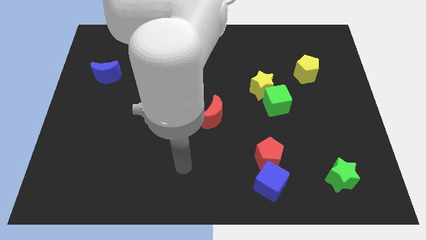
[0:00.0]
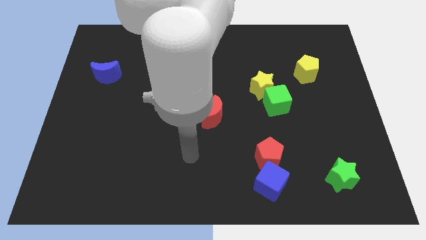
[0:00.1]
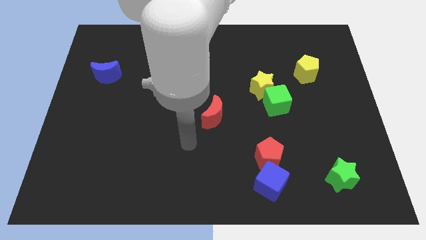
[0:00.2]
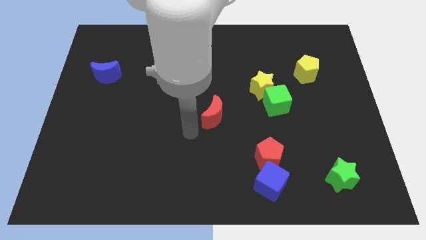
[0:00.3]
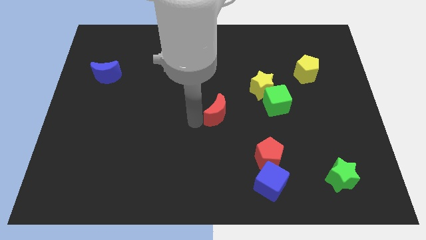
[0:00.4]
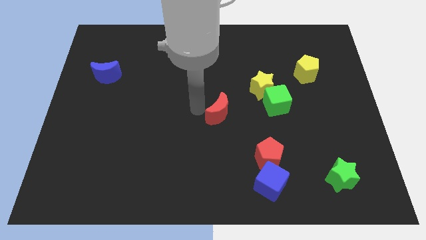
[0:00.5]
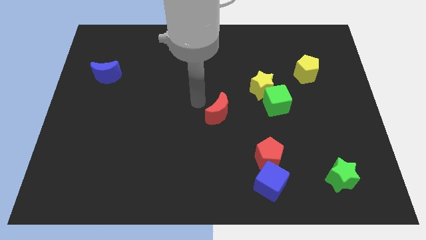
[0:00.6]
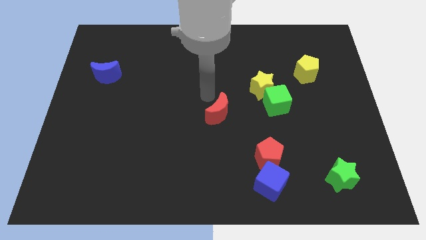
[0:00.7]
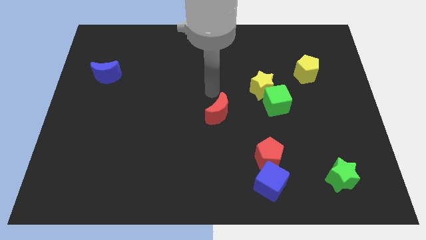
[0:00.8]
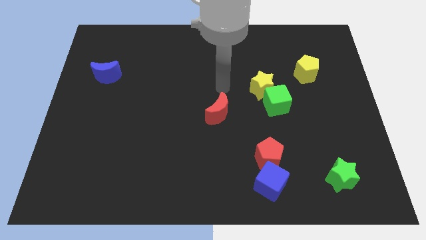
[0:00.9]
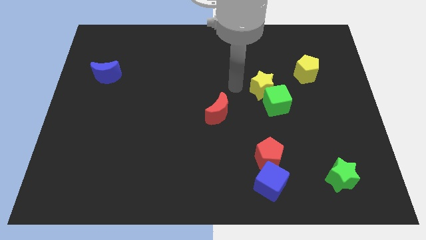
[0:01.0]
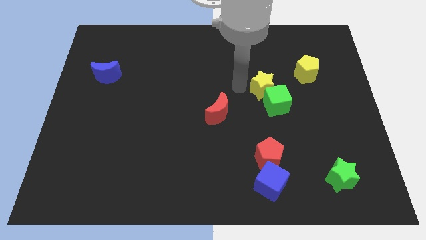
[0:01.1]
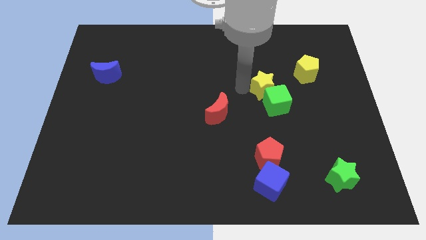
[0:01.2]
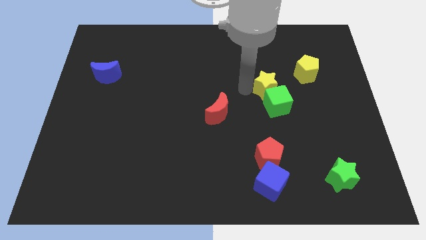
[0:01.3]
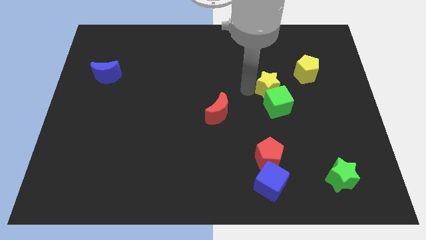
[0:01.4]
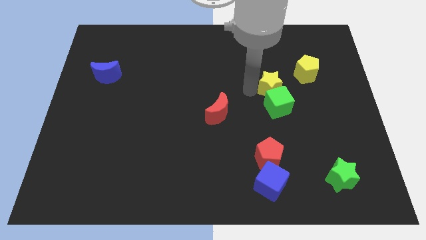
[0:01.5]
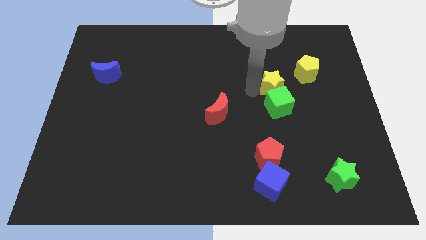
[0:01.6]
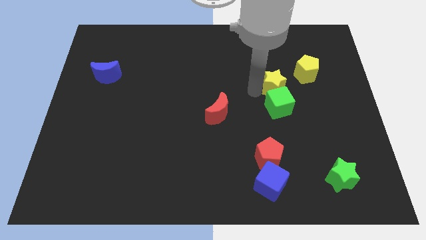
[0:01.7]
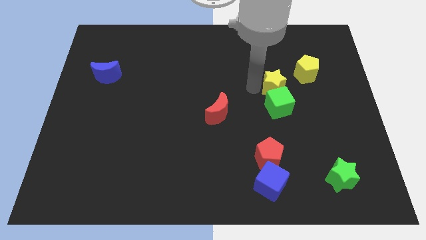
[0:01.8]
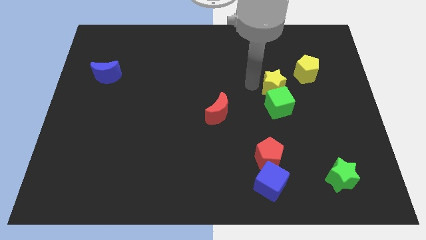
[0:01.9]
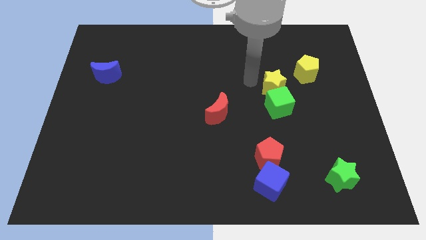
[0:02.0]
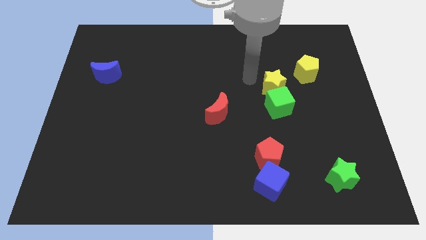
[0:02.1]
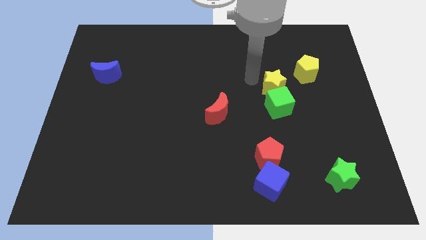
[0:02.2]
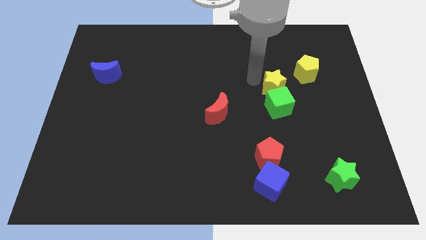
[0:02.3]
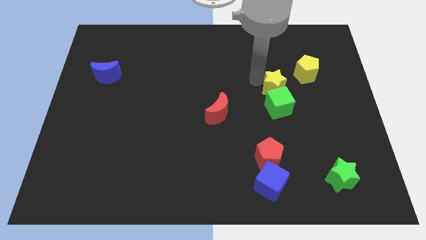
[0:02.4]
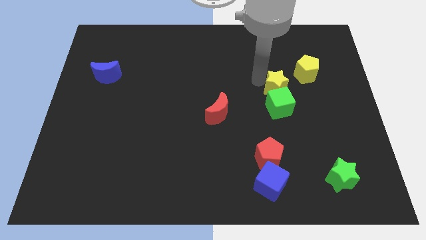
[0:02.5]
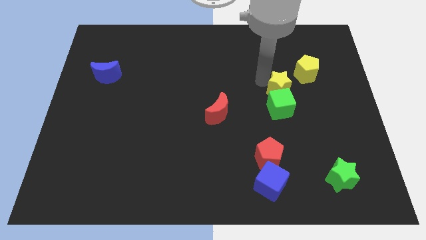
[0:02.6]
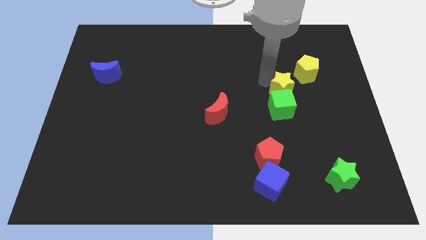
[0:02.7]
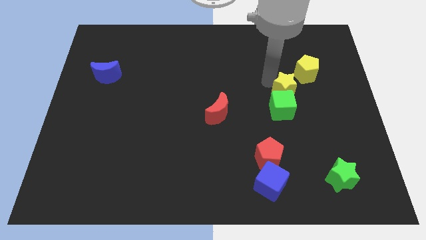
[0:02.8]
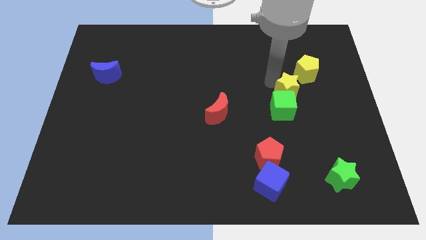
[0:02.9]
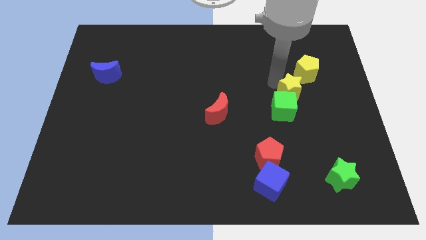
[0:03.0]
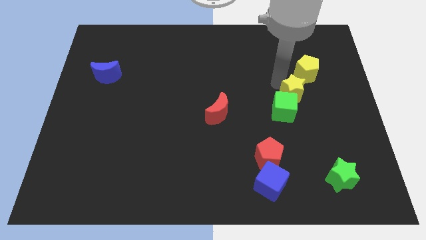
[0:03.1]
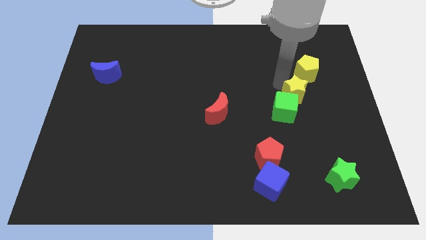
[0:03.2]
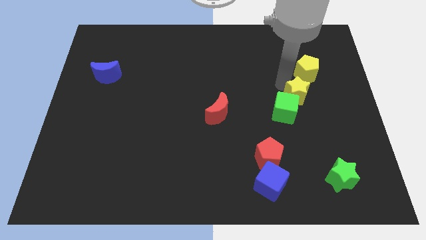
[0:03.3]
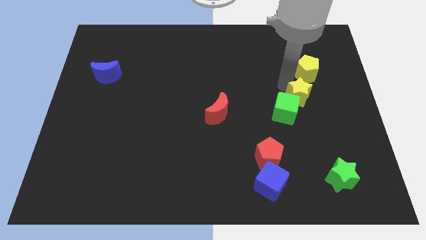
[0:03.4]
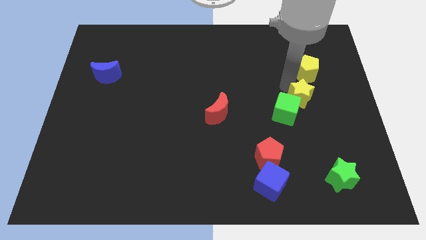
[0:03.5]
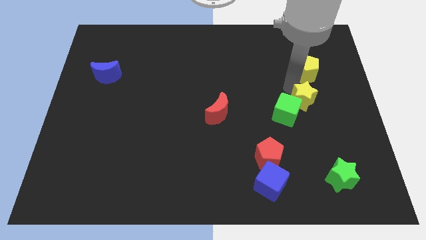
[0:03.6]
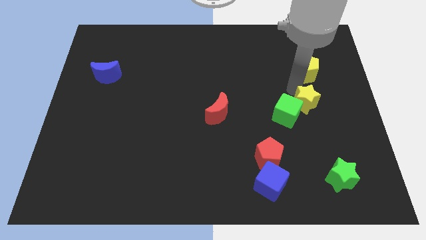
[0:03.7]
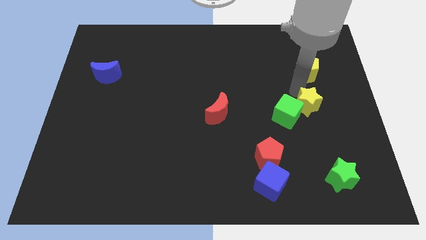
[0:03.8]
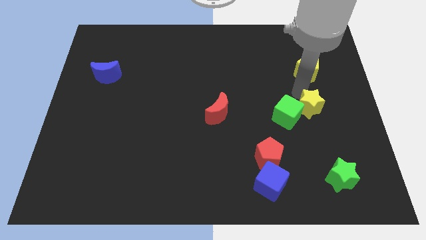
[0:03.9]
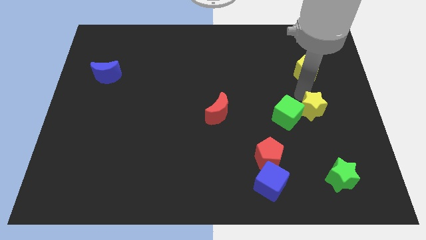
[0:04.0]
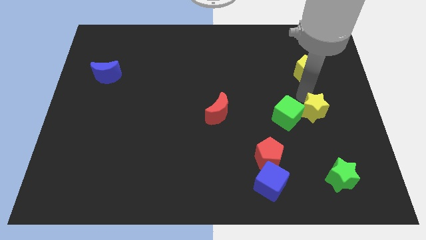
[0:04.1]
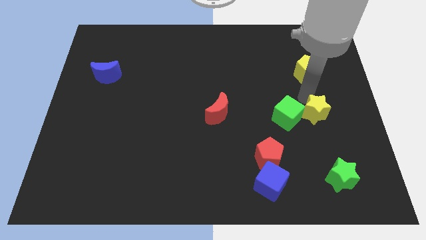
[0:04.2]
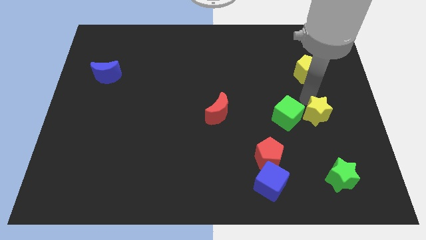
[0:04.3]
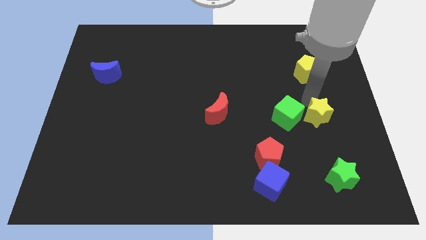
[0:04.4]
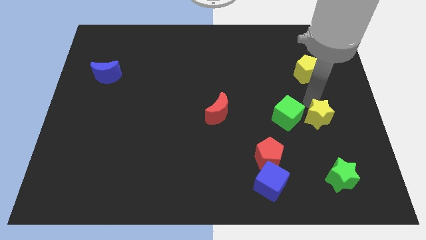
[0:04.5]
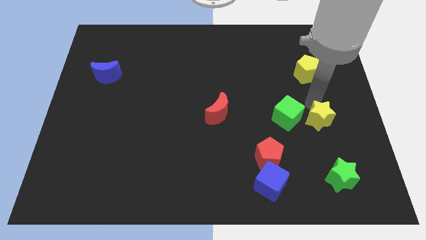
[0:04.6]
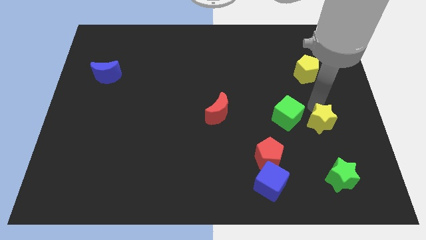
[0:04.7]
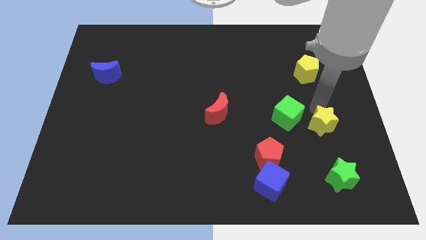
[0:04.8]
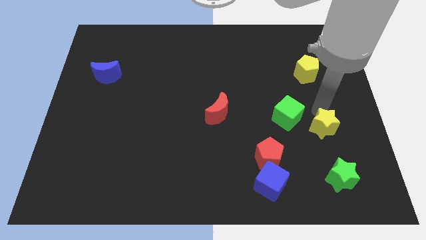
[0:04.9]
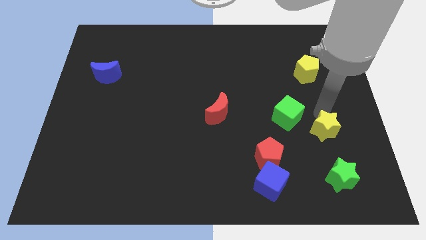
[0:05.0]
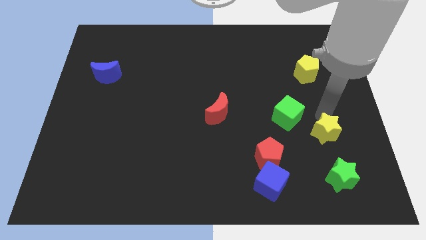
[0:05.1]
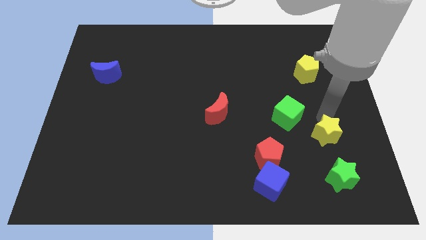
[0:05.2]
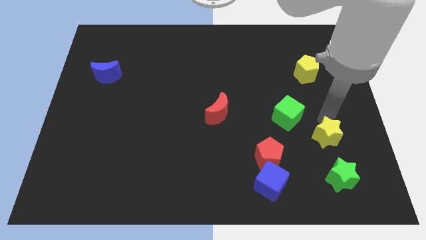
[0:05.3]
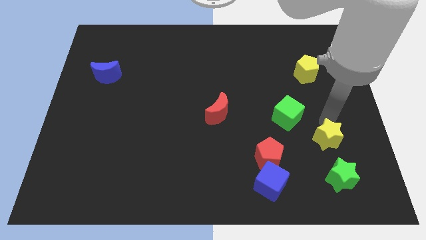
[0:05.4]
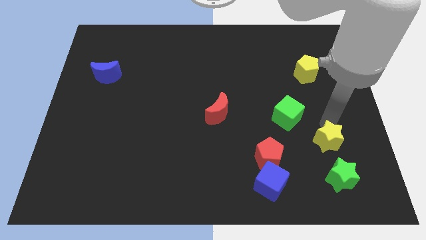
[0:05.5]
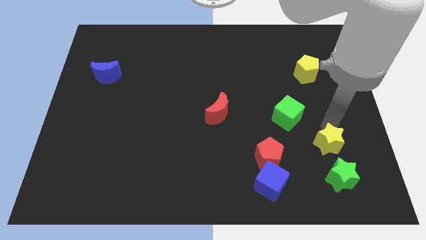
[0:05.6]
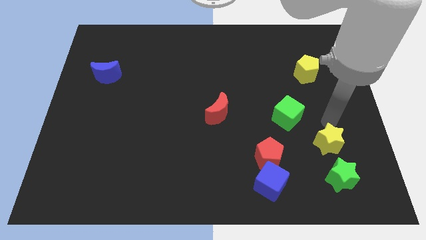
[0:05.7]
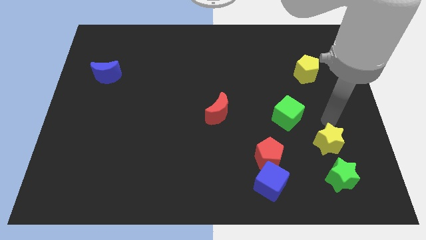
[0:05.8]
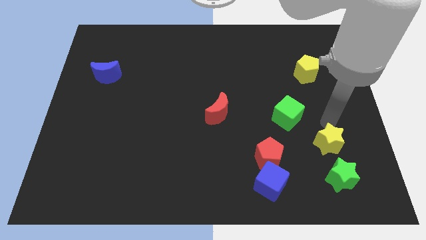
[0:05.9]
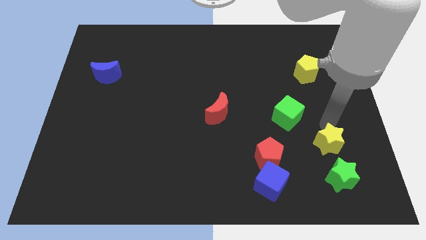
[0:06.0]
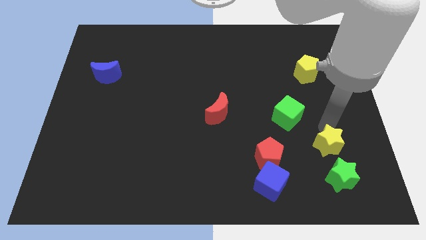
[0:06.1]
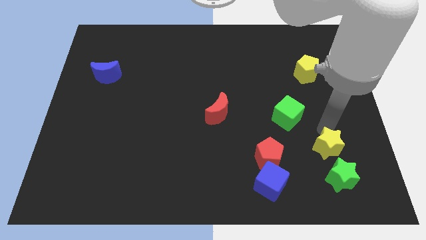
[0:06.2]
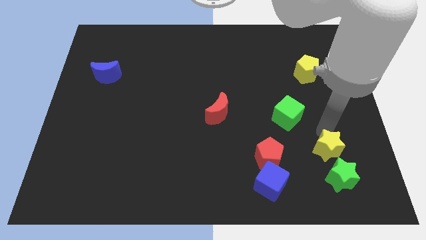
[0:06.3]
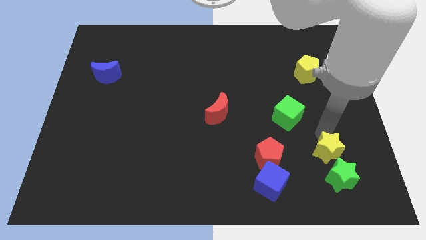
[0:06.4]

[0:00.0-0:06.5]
put the yellow star to the green star

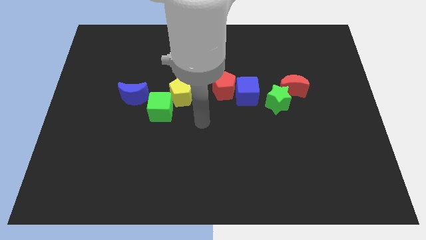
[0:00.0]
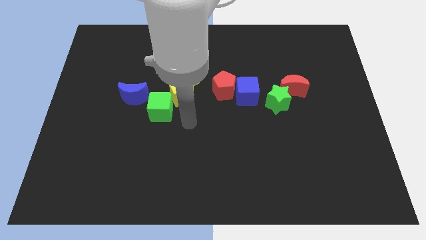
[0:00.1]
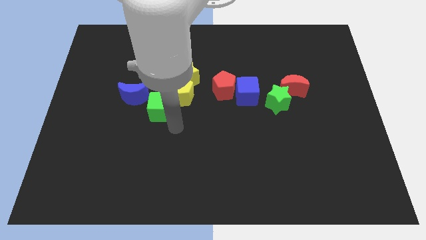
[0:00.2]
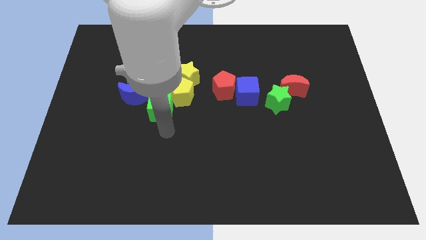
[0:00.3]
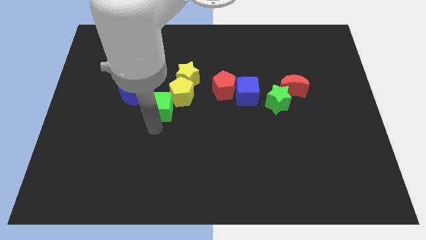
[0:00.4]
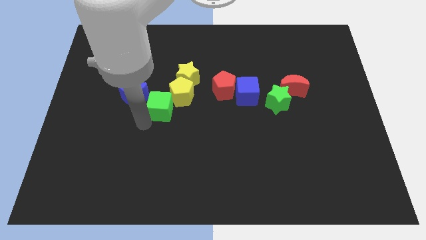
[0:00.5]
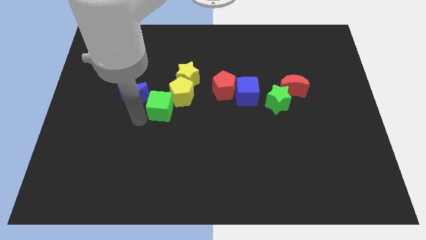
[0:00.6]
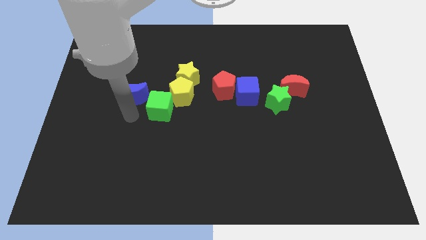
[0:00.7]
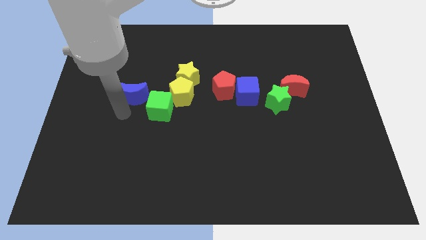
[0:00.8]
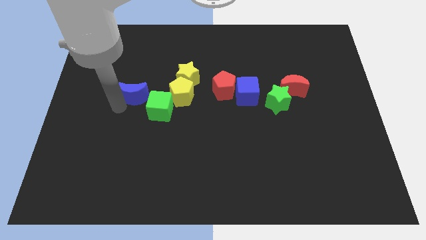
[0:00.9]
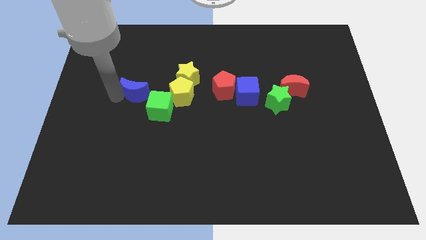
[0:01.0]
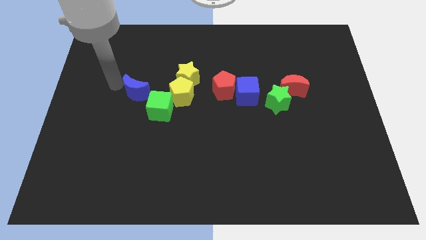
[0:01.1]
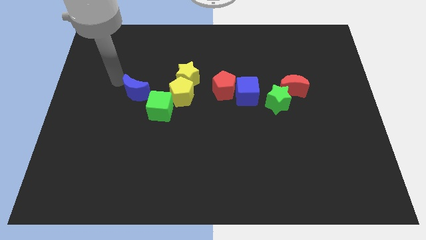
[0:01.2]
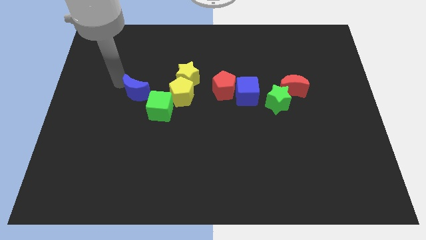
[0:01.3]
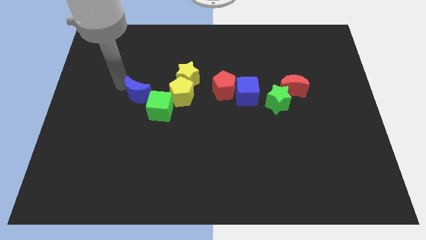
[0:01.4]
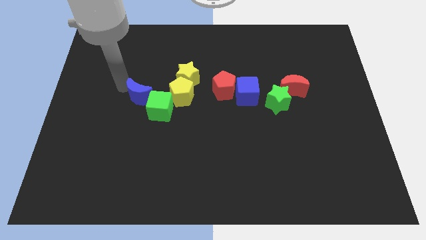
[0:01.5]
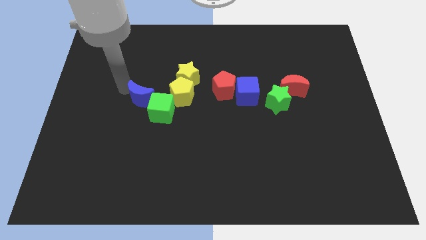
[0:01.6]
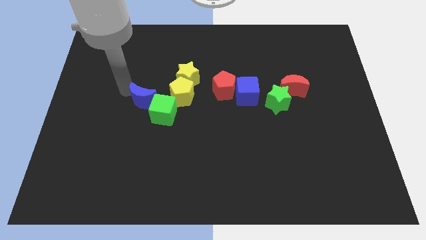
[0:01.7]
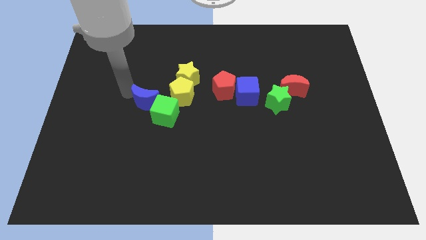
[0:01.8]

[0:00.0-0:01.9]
move the blue moon next to the green cube
